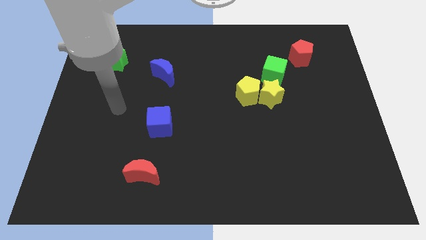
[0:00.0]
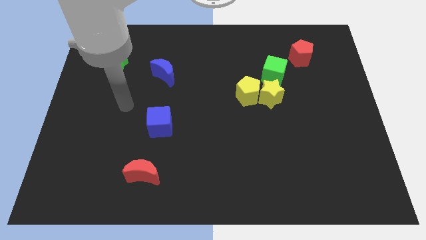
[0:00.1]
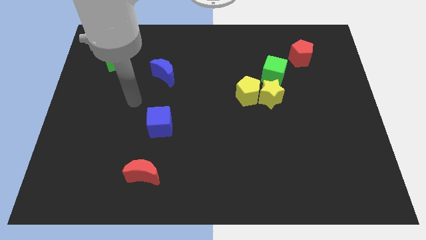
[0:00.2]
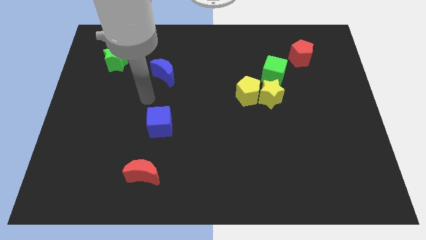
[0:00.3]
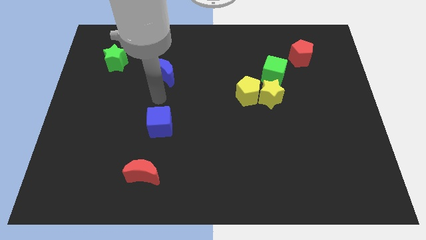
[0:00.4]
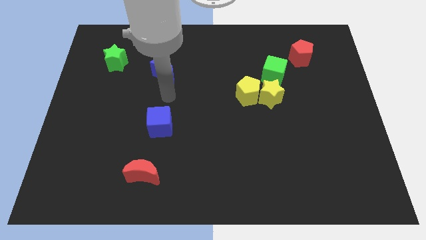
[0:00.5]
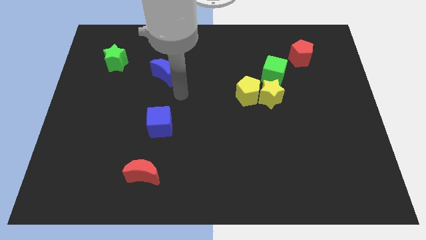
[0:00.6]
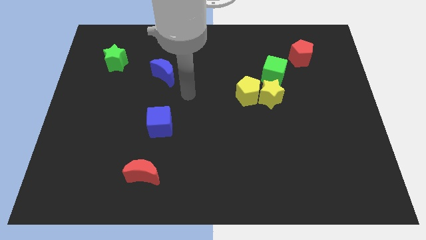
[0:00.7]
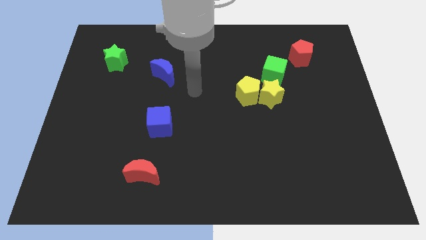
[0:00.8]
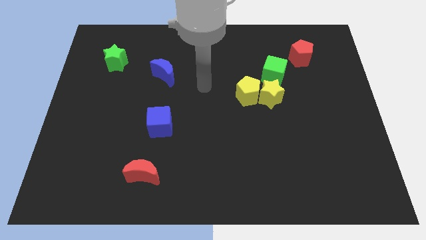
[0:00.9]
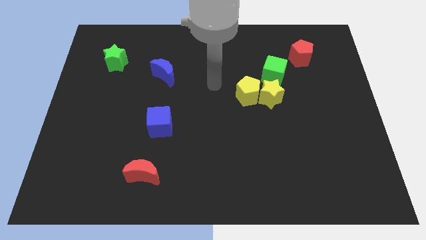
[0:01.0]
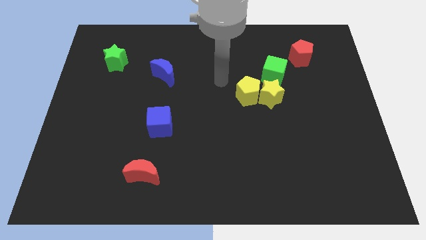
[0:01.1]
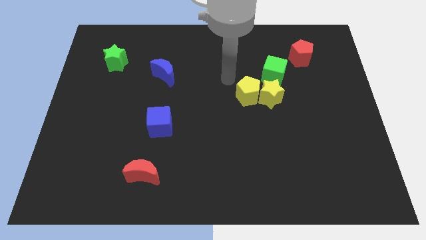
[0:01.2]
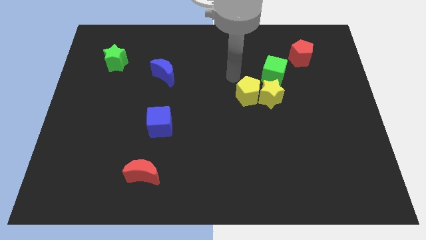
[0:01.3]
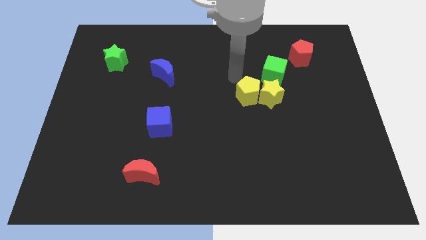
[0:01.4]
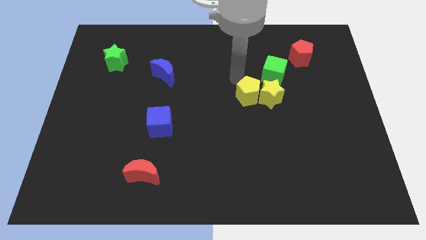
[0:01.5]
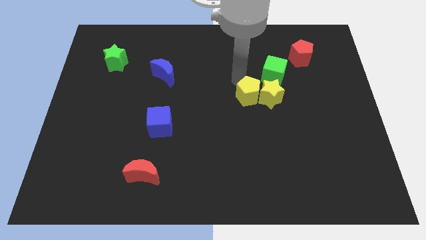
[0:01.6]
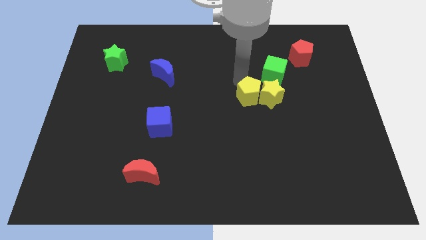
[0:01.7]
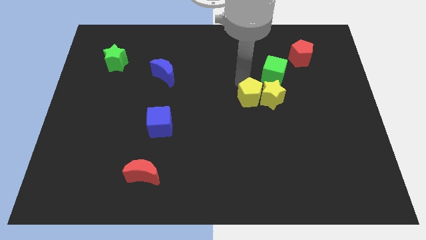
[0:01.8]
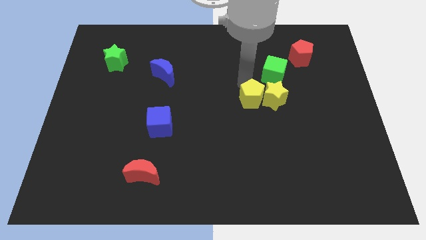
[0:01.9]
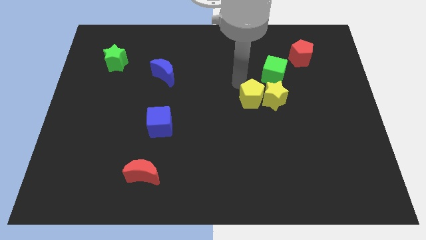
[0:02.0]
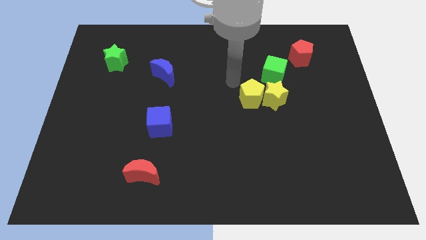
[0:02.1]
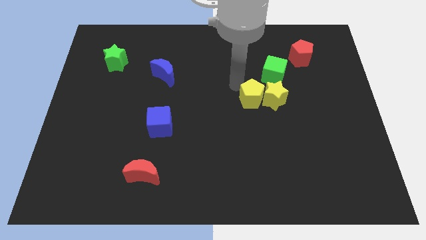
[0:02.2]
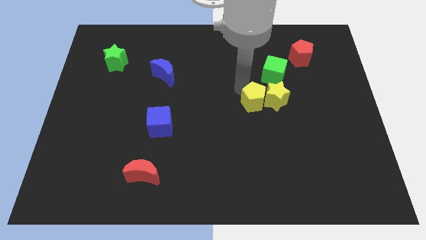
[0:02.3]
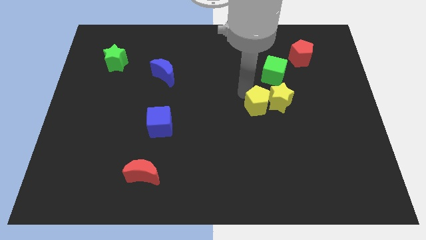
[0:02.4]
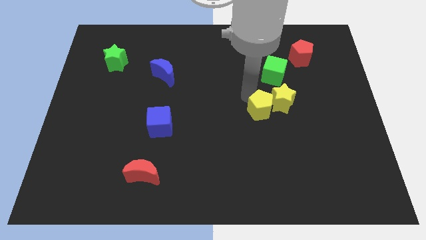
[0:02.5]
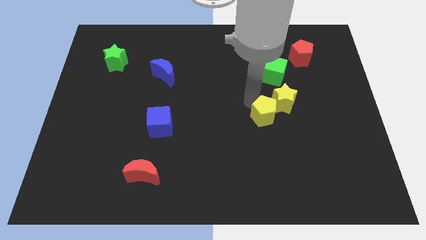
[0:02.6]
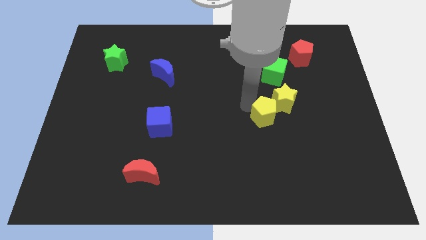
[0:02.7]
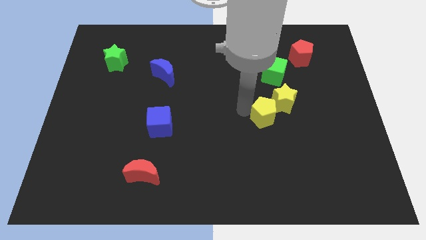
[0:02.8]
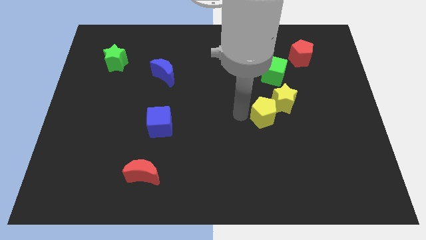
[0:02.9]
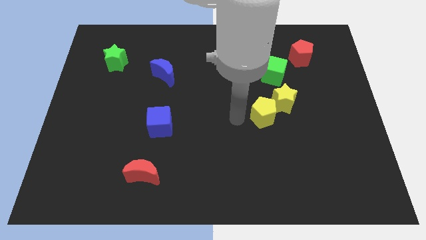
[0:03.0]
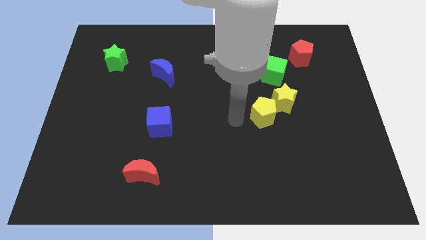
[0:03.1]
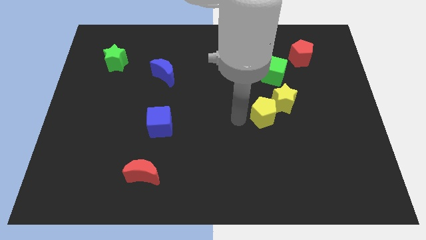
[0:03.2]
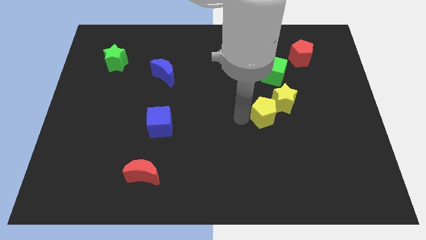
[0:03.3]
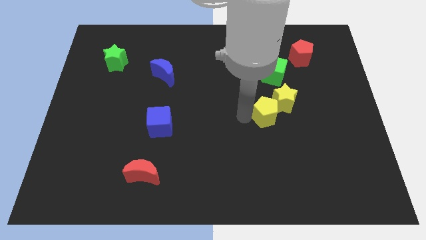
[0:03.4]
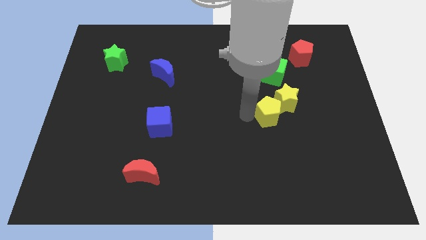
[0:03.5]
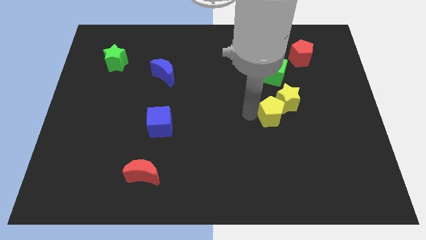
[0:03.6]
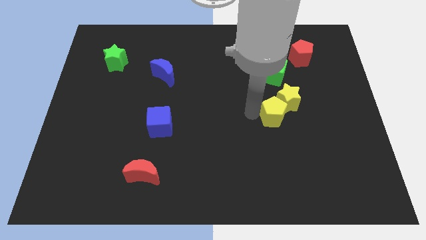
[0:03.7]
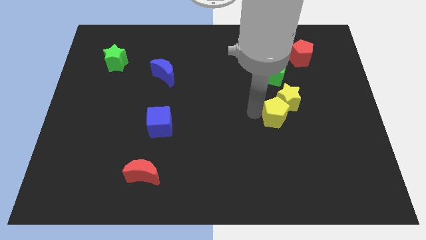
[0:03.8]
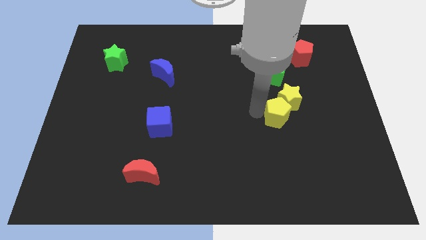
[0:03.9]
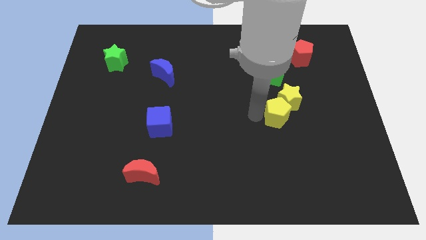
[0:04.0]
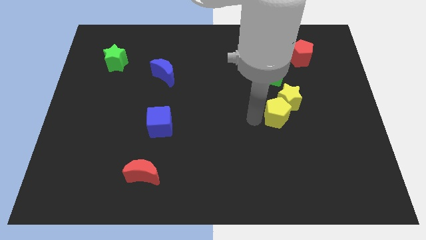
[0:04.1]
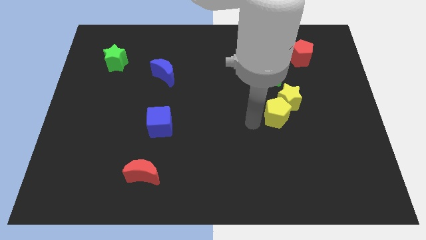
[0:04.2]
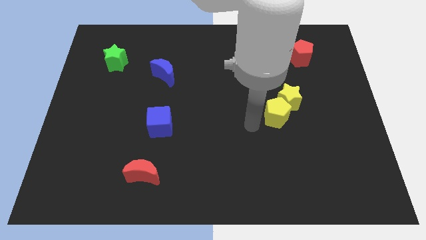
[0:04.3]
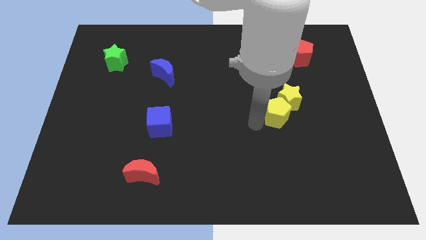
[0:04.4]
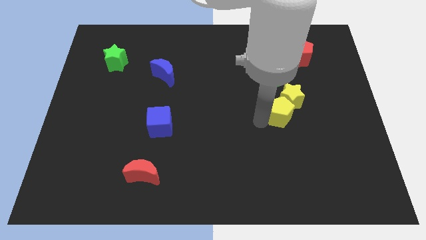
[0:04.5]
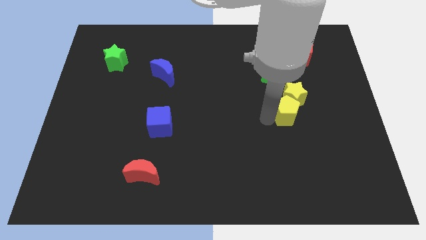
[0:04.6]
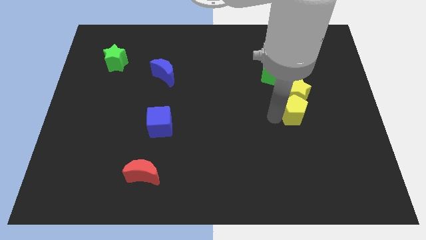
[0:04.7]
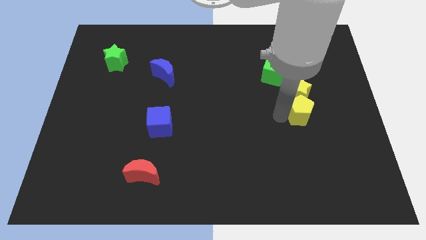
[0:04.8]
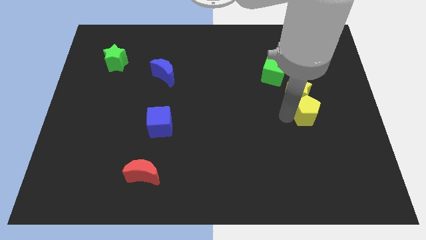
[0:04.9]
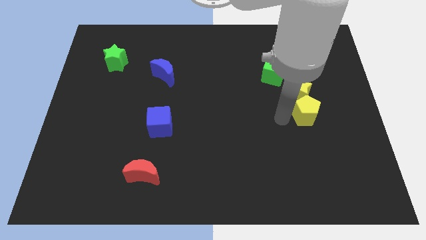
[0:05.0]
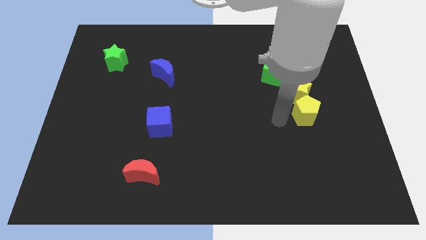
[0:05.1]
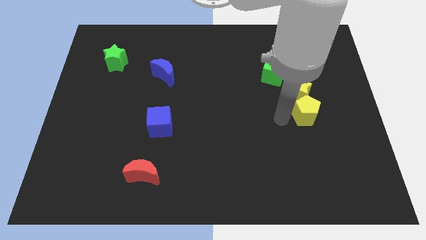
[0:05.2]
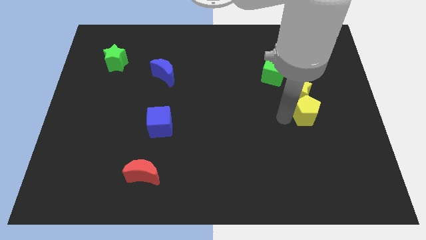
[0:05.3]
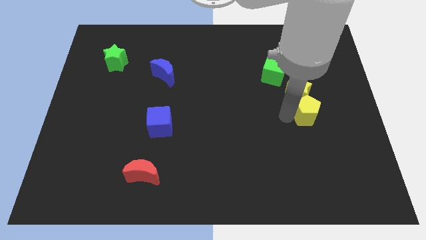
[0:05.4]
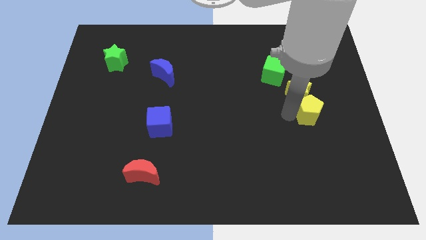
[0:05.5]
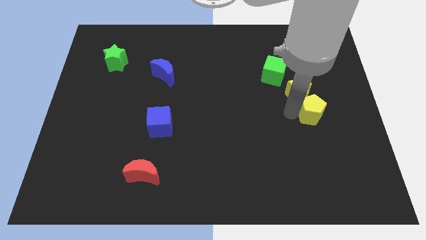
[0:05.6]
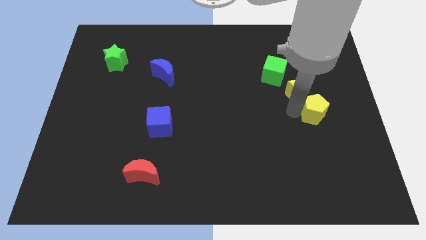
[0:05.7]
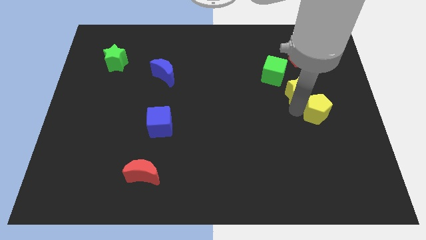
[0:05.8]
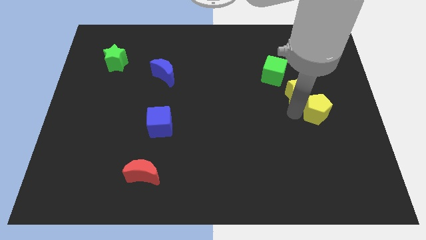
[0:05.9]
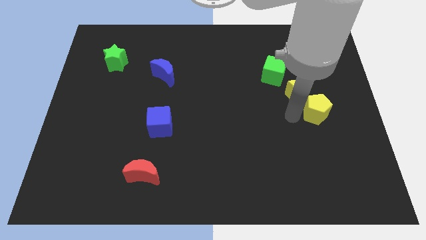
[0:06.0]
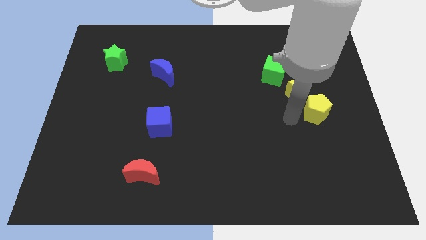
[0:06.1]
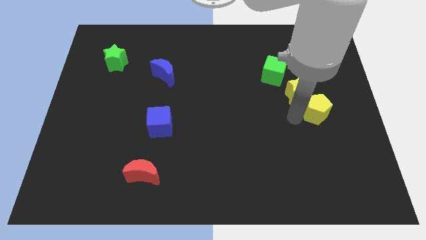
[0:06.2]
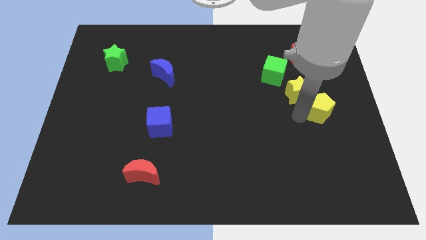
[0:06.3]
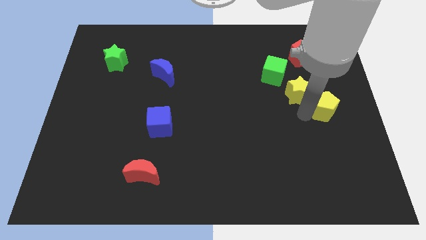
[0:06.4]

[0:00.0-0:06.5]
slide the yellow pentagon to the center right
